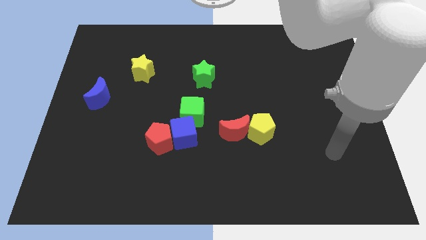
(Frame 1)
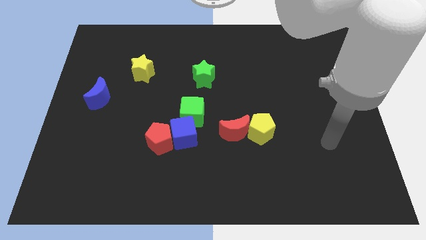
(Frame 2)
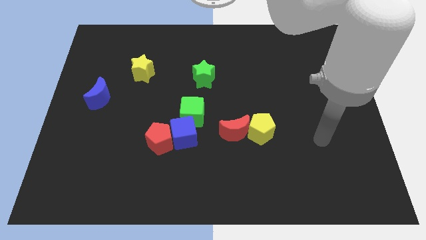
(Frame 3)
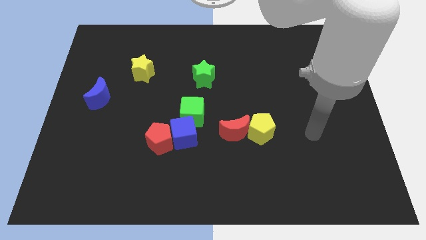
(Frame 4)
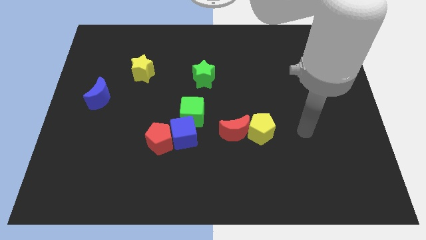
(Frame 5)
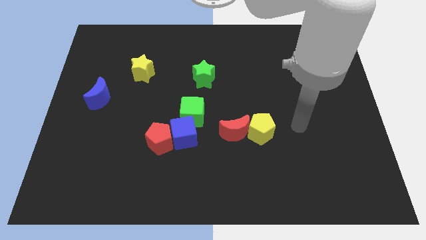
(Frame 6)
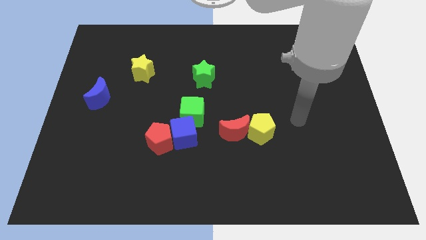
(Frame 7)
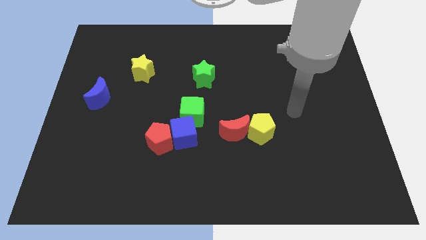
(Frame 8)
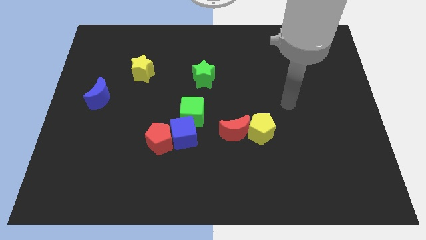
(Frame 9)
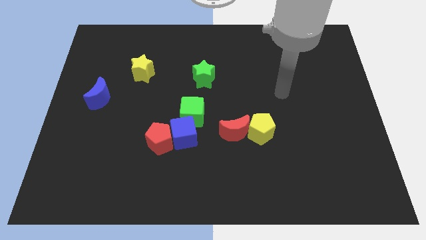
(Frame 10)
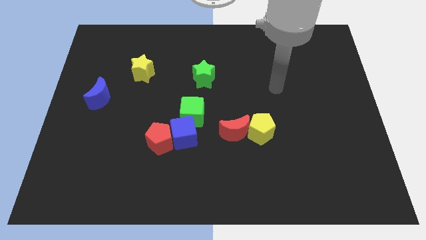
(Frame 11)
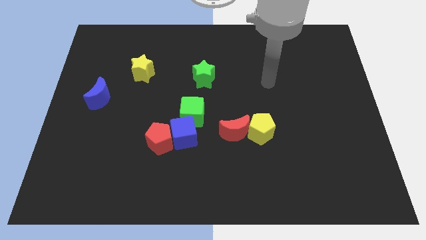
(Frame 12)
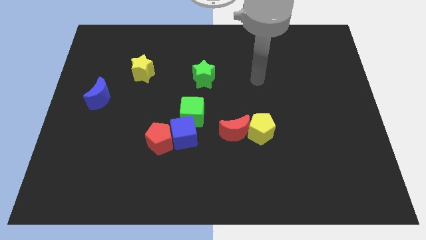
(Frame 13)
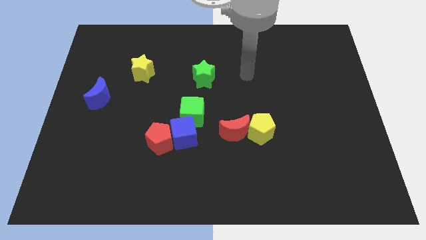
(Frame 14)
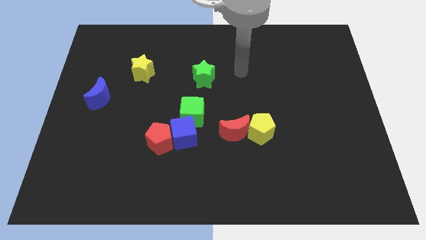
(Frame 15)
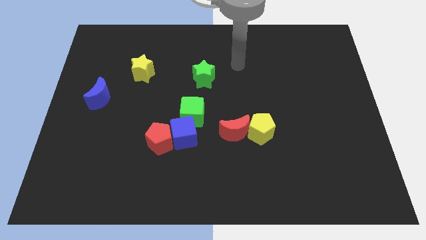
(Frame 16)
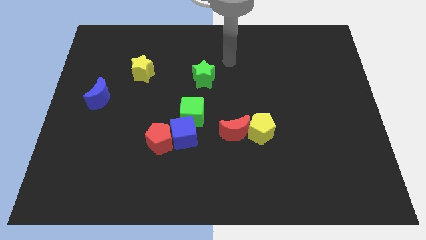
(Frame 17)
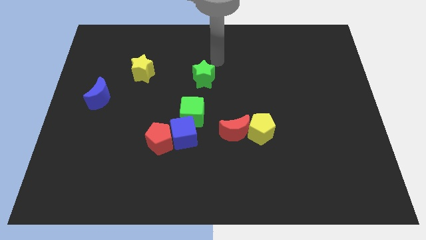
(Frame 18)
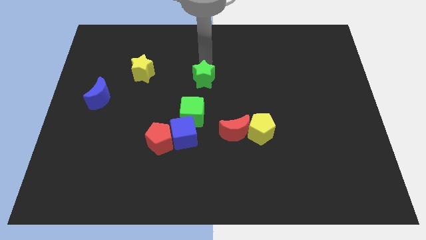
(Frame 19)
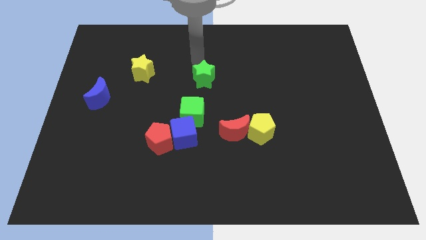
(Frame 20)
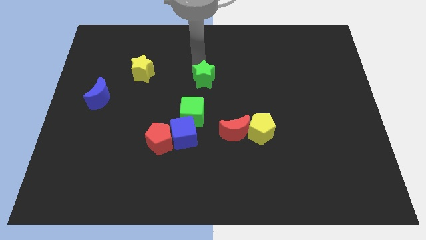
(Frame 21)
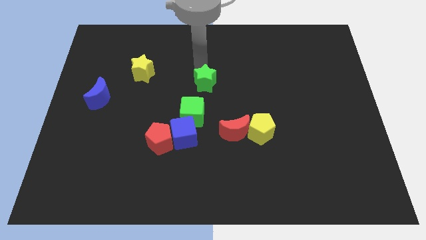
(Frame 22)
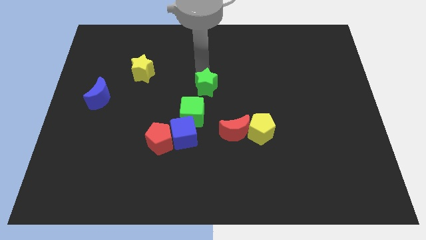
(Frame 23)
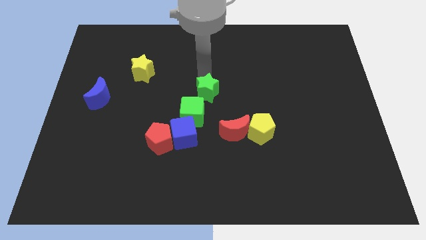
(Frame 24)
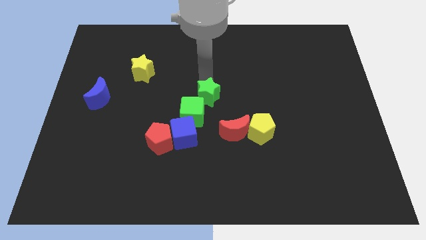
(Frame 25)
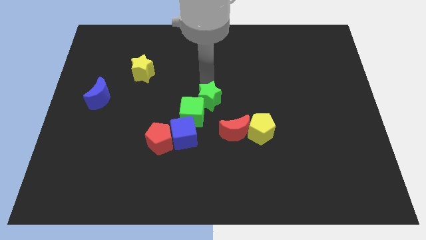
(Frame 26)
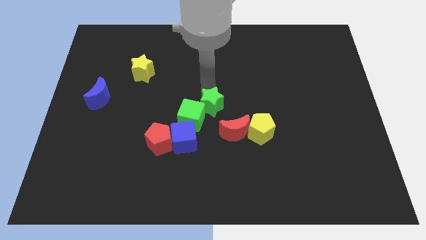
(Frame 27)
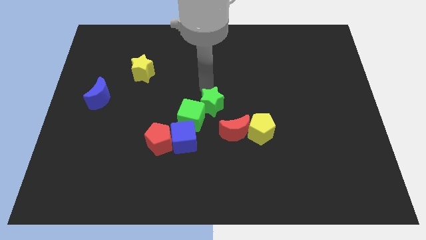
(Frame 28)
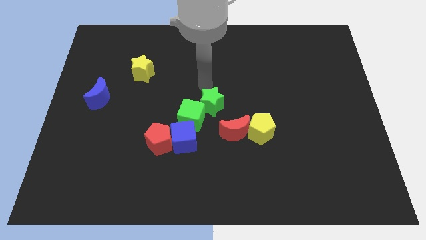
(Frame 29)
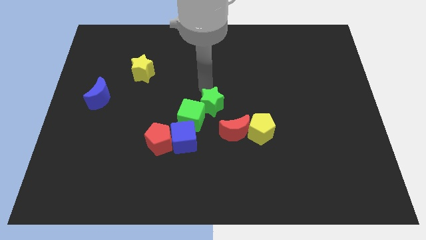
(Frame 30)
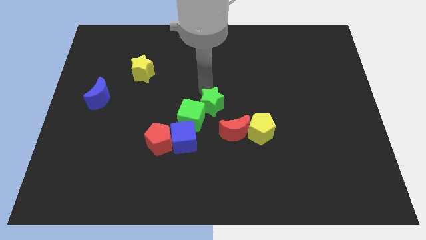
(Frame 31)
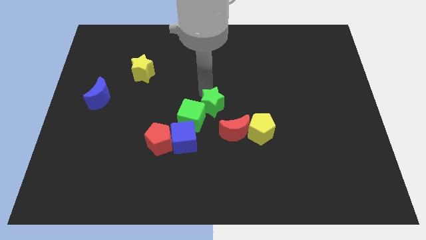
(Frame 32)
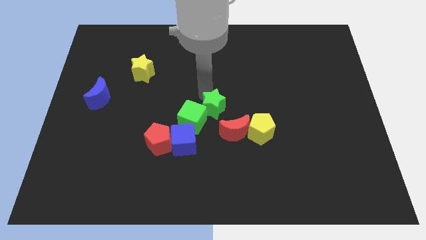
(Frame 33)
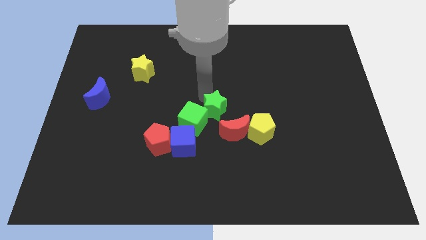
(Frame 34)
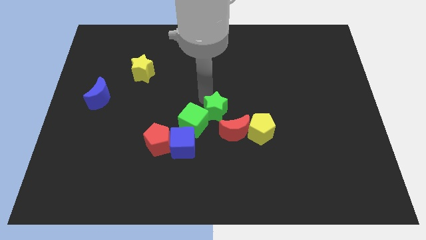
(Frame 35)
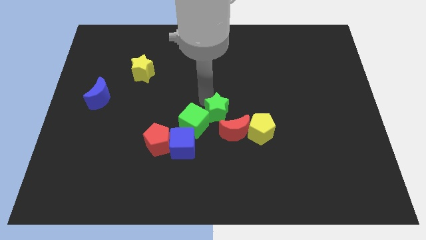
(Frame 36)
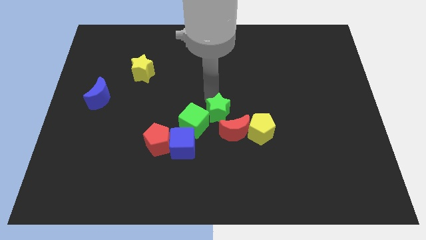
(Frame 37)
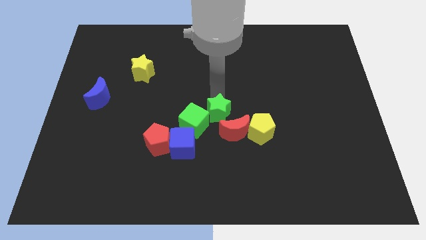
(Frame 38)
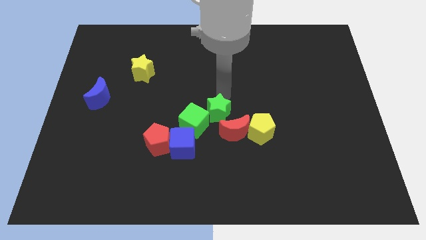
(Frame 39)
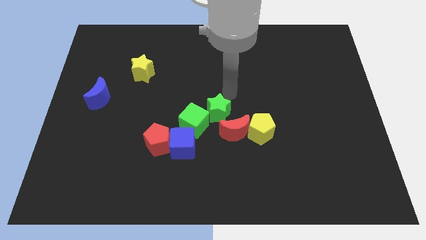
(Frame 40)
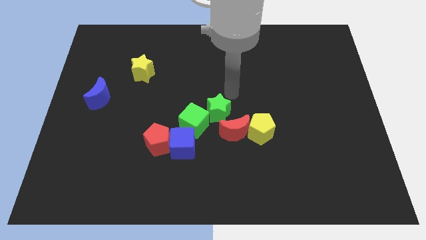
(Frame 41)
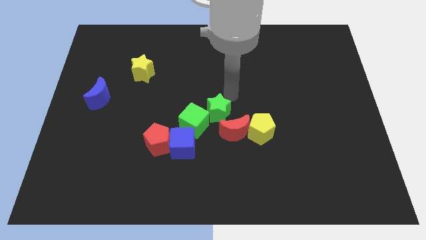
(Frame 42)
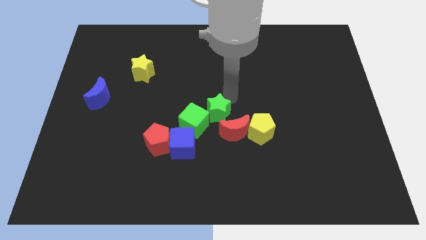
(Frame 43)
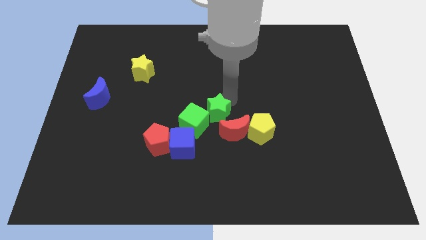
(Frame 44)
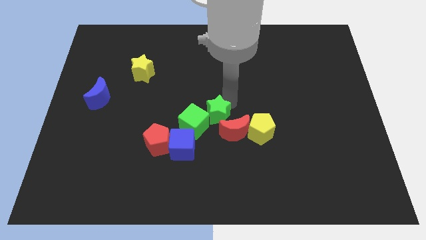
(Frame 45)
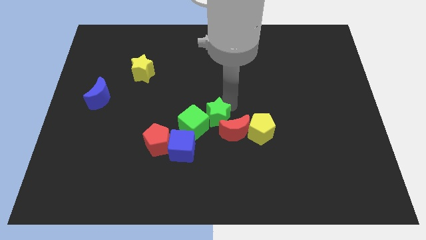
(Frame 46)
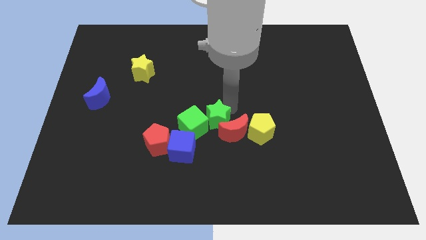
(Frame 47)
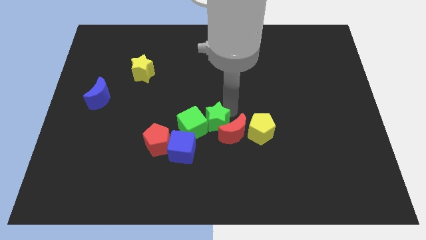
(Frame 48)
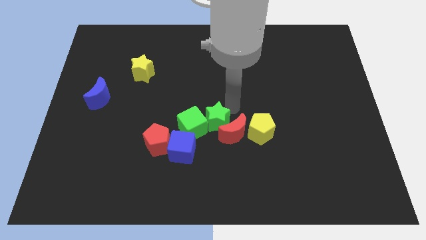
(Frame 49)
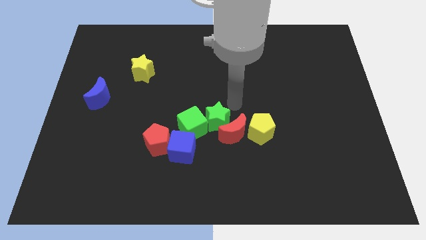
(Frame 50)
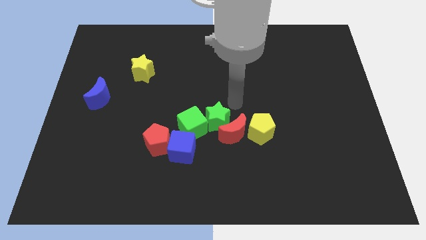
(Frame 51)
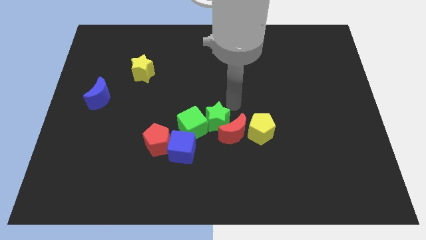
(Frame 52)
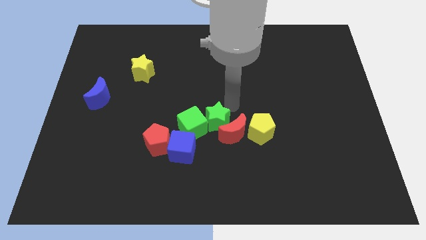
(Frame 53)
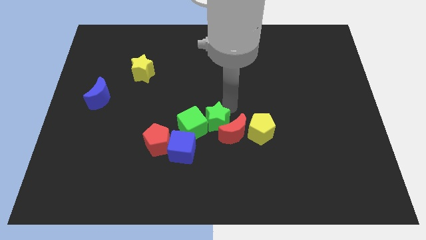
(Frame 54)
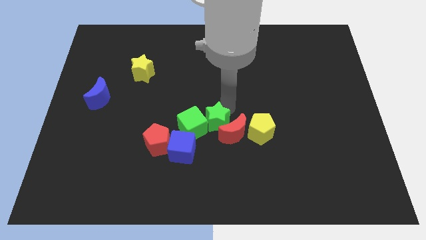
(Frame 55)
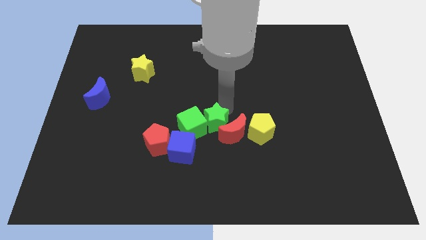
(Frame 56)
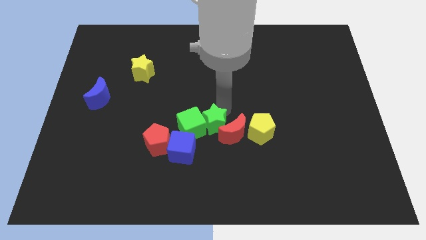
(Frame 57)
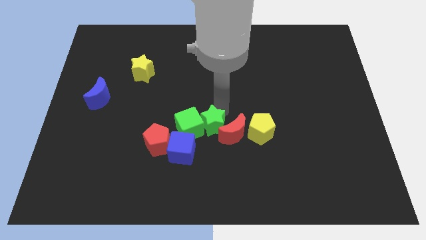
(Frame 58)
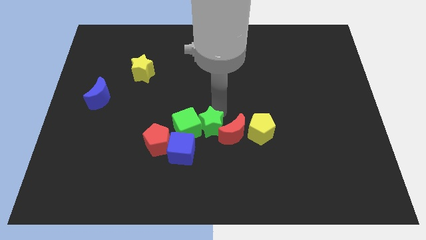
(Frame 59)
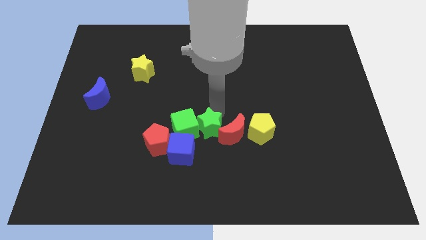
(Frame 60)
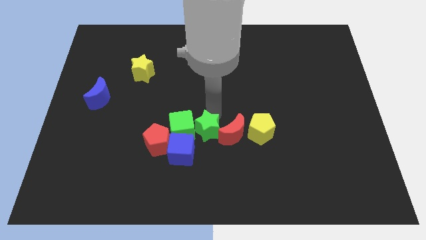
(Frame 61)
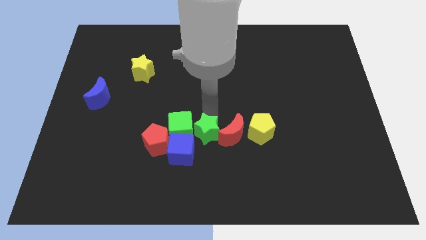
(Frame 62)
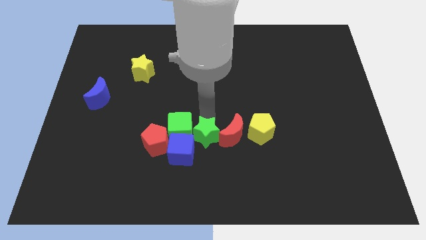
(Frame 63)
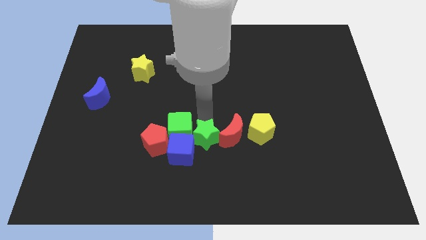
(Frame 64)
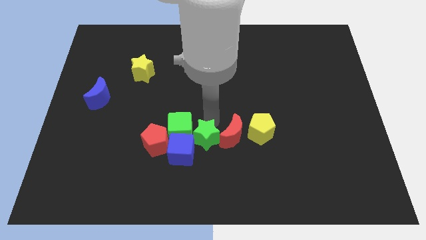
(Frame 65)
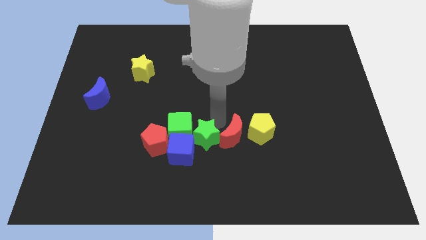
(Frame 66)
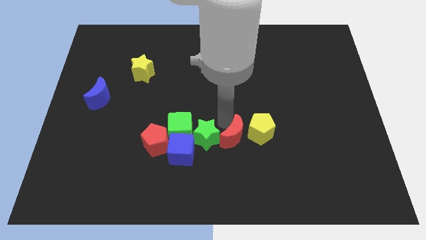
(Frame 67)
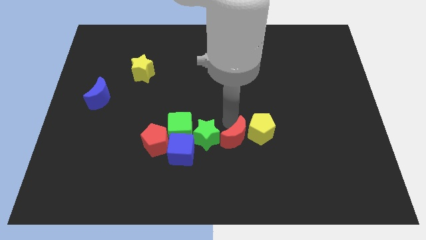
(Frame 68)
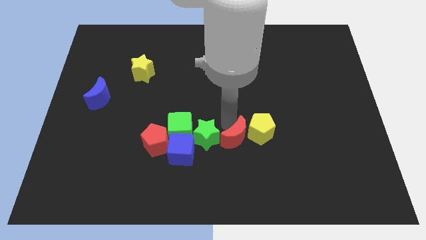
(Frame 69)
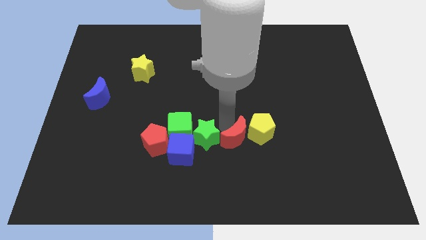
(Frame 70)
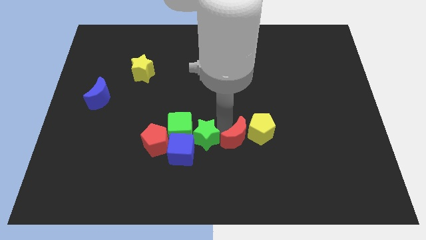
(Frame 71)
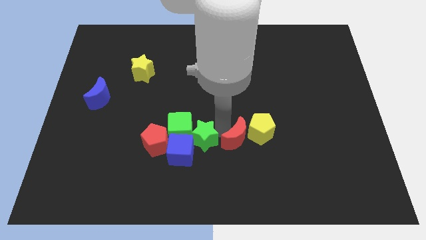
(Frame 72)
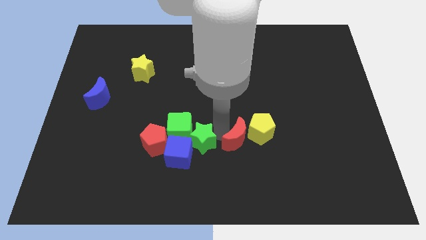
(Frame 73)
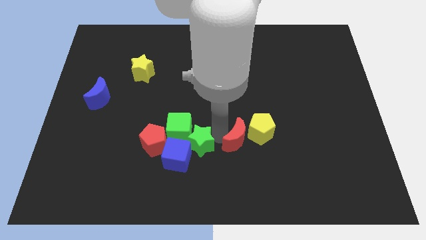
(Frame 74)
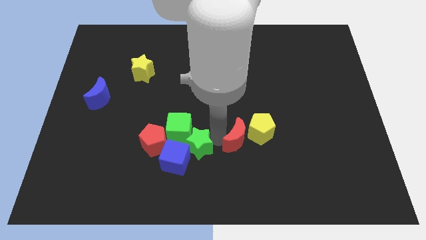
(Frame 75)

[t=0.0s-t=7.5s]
slide the green star towards the blue cube
